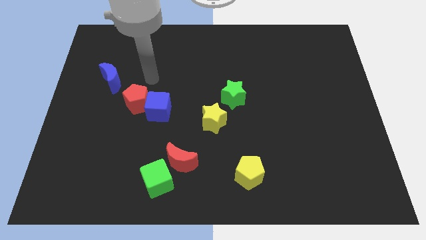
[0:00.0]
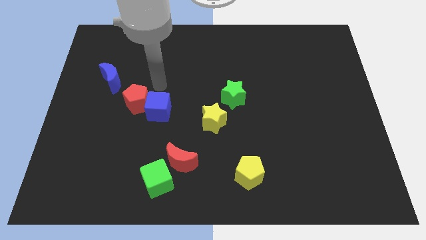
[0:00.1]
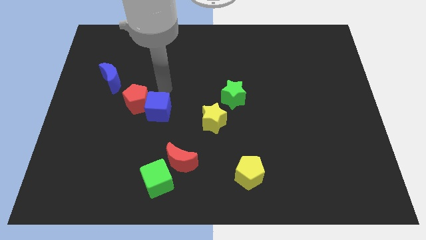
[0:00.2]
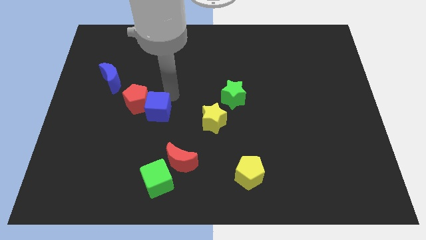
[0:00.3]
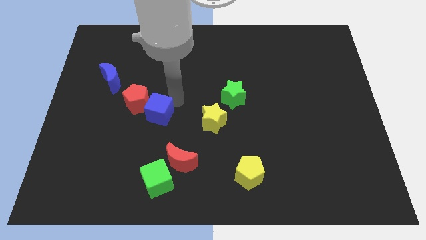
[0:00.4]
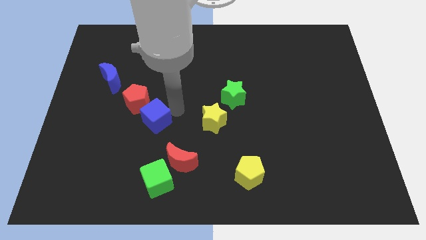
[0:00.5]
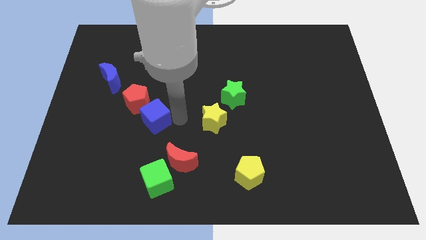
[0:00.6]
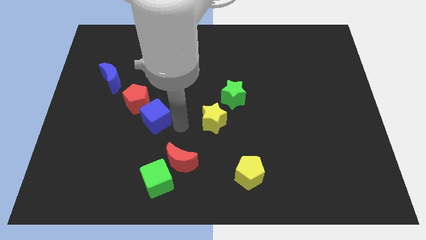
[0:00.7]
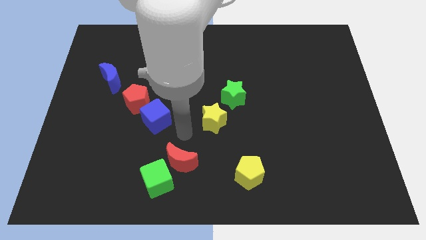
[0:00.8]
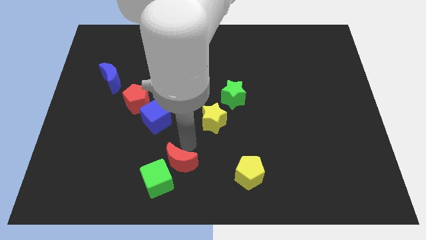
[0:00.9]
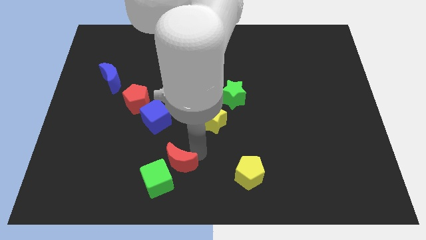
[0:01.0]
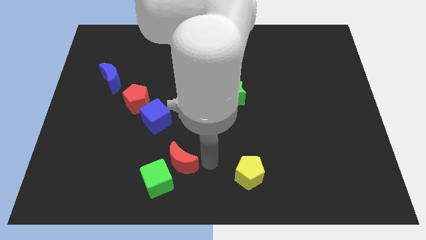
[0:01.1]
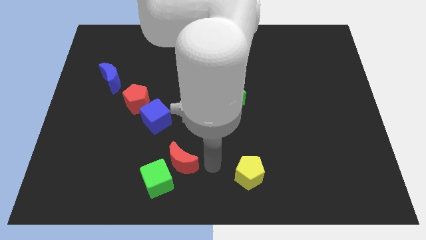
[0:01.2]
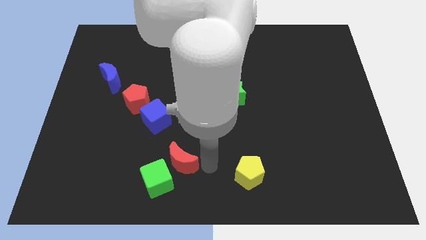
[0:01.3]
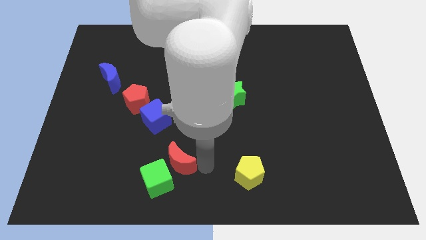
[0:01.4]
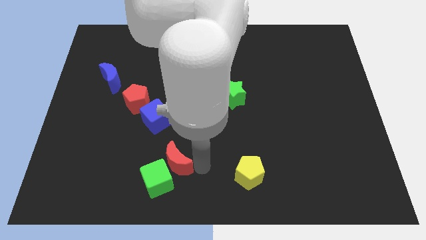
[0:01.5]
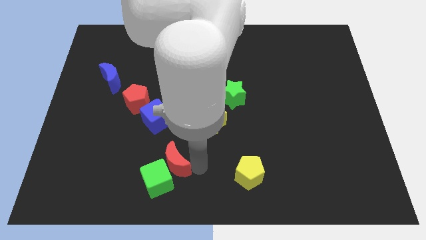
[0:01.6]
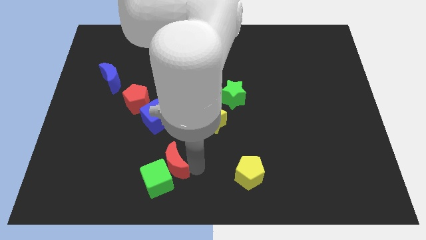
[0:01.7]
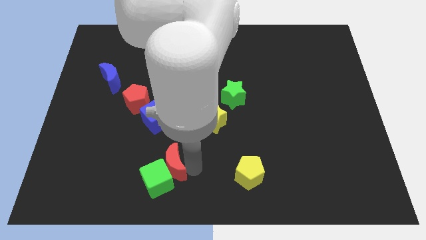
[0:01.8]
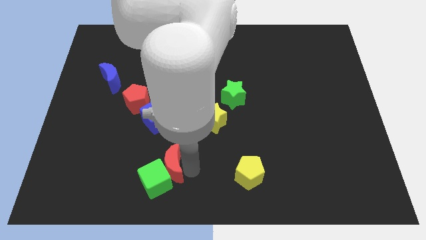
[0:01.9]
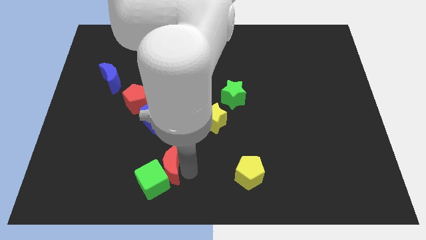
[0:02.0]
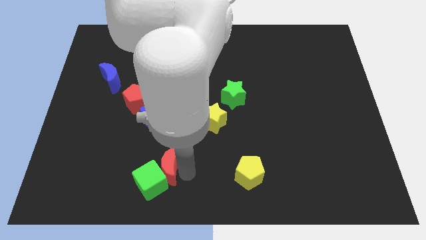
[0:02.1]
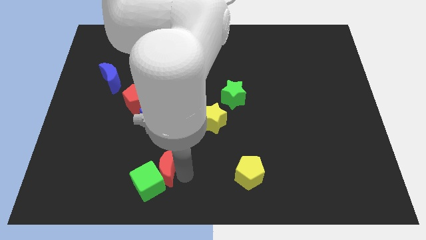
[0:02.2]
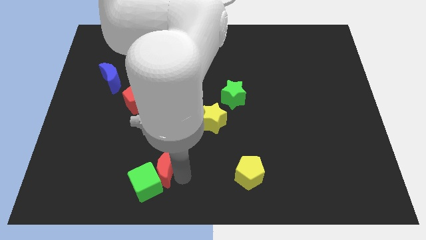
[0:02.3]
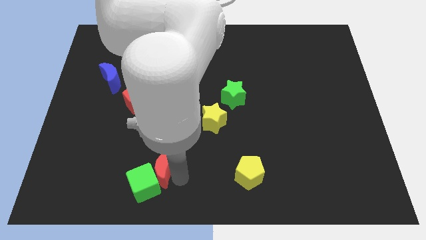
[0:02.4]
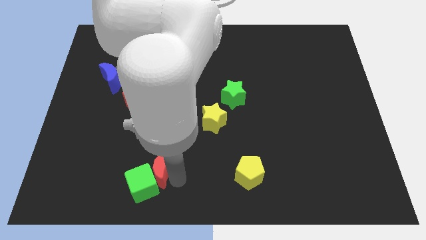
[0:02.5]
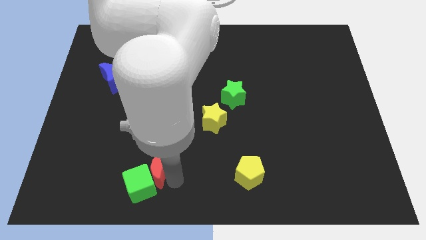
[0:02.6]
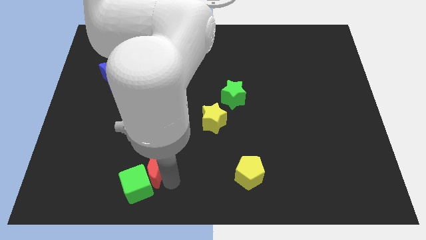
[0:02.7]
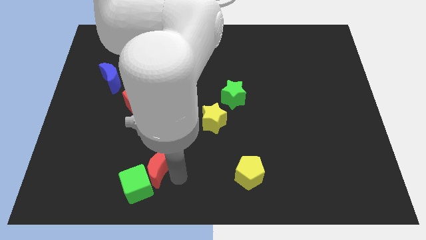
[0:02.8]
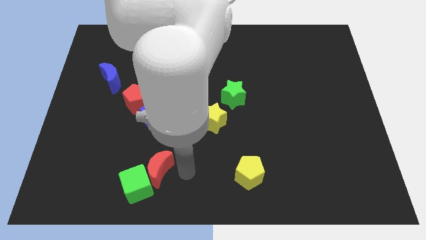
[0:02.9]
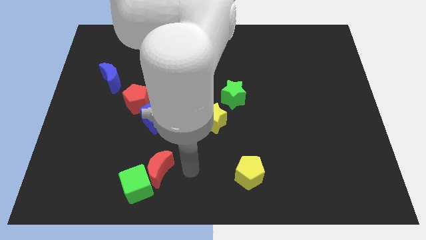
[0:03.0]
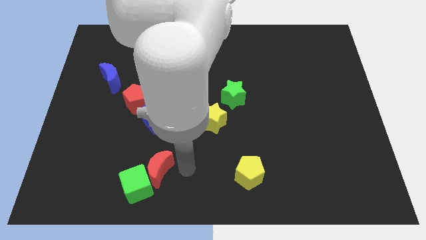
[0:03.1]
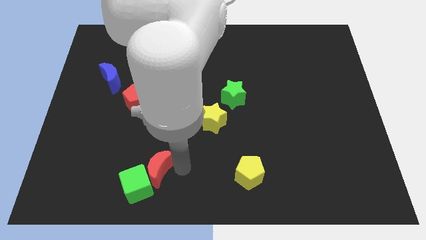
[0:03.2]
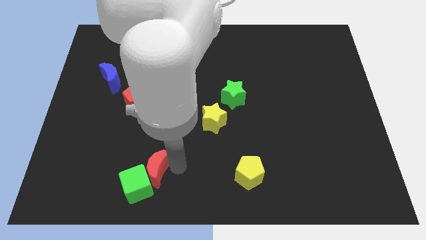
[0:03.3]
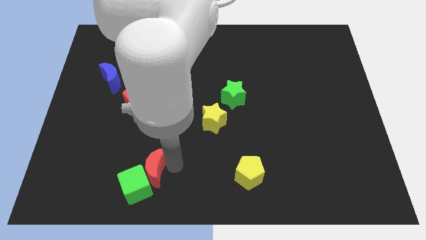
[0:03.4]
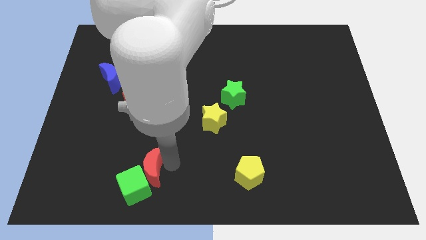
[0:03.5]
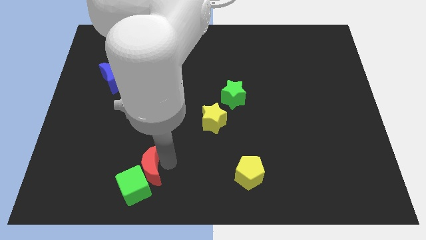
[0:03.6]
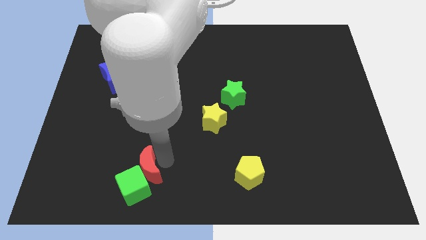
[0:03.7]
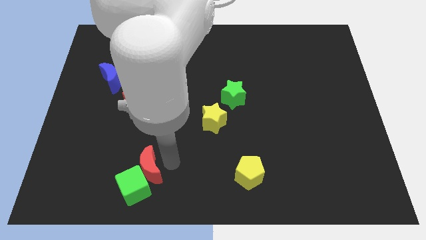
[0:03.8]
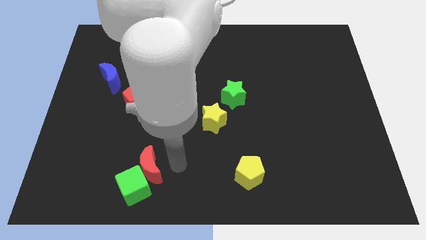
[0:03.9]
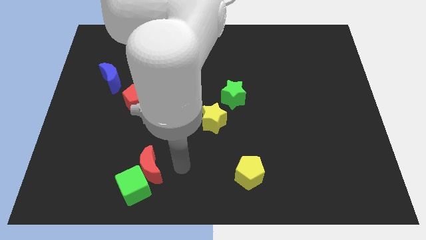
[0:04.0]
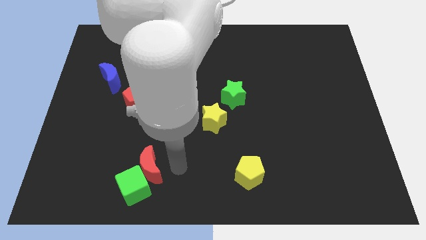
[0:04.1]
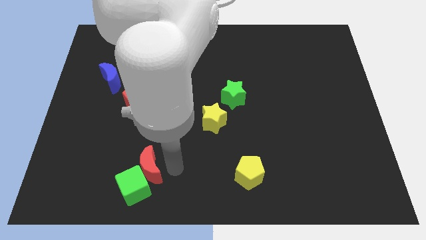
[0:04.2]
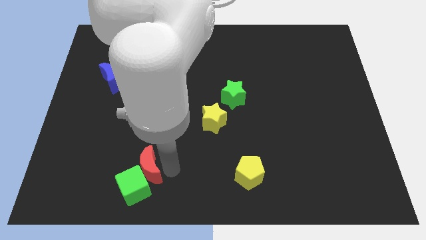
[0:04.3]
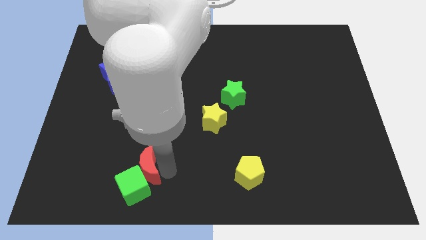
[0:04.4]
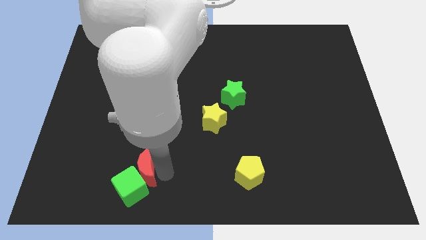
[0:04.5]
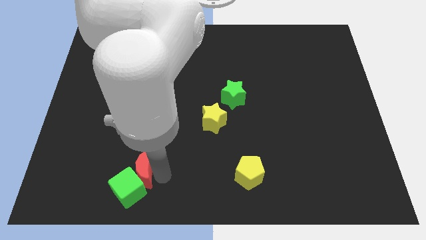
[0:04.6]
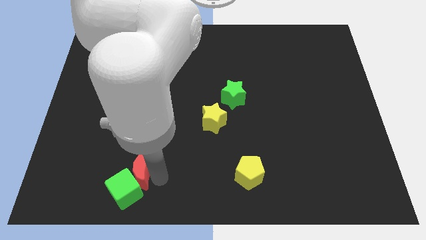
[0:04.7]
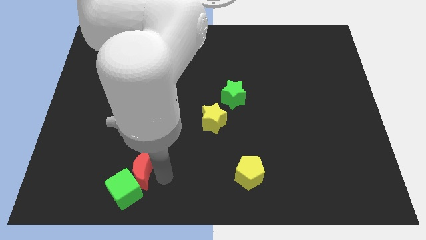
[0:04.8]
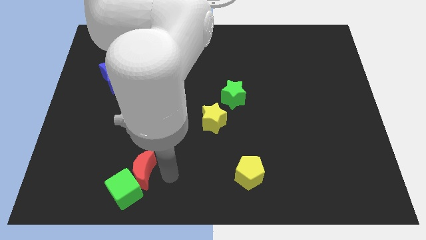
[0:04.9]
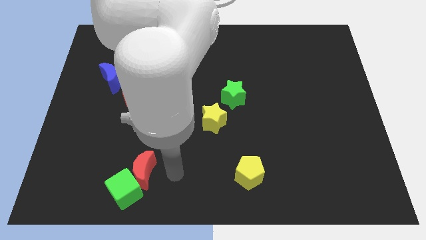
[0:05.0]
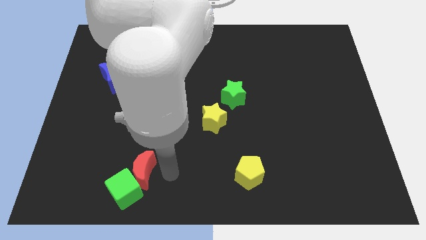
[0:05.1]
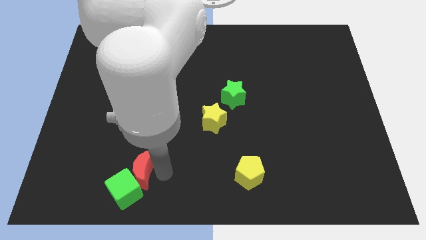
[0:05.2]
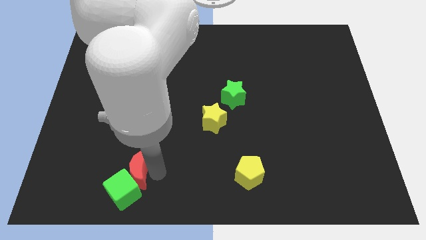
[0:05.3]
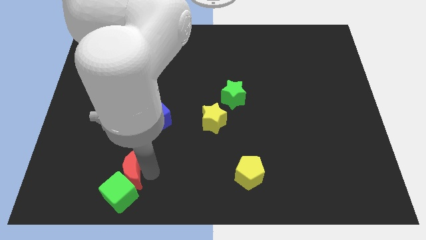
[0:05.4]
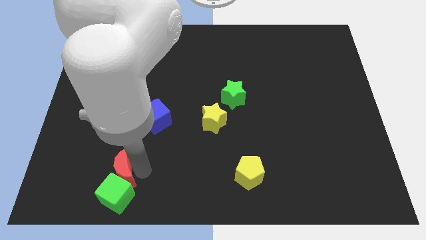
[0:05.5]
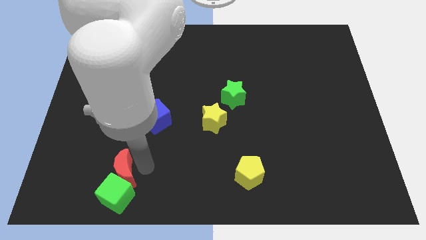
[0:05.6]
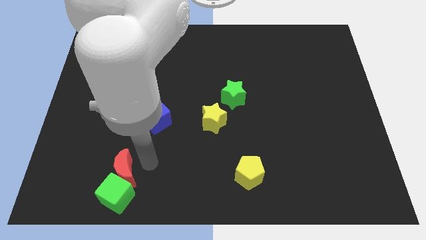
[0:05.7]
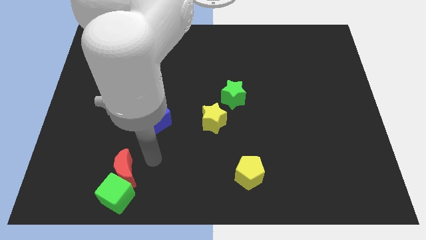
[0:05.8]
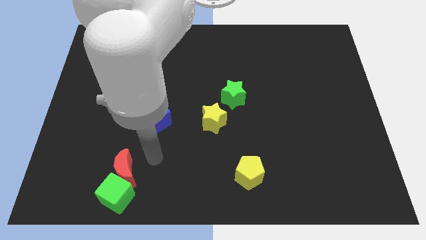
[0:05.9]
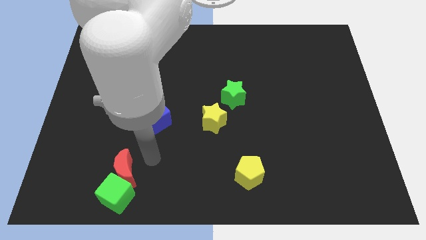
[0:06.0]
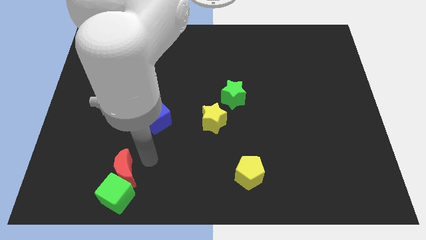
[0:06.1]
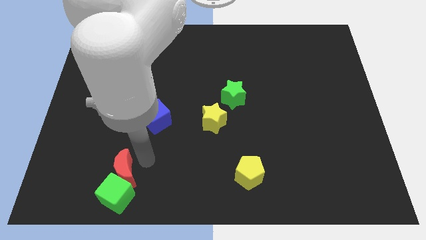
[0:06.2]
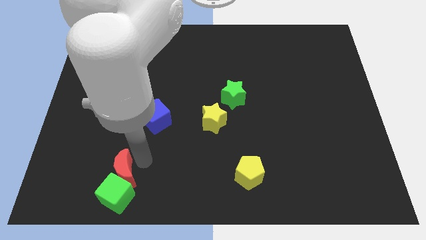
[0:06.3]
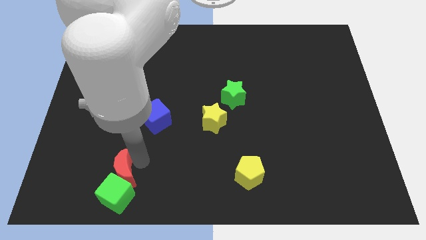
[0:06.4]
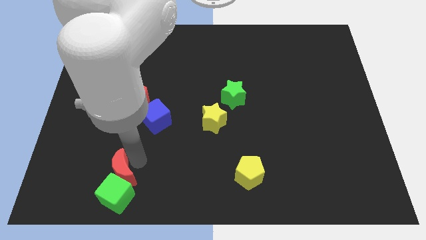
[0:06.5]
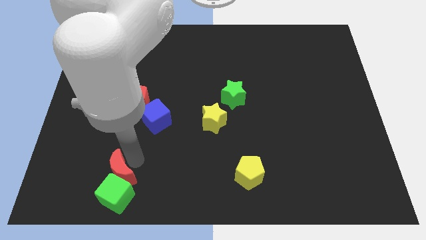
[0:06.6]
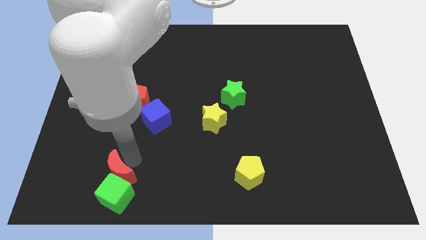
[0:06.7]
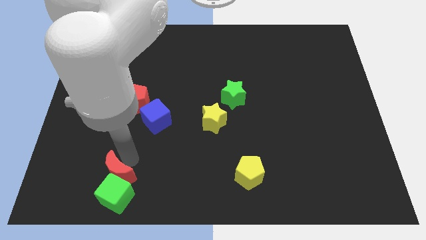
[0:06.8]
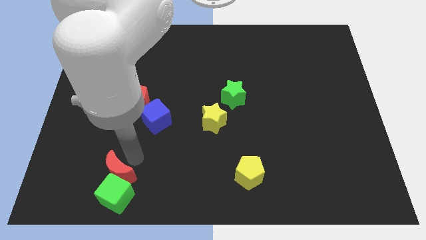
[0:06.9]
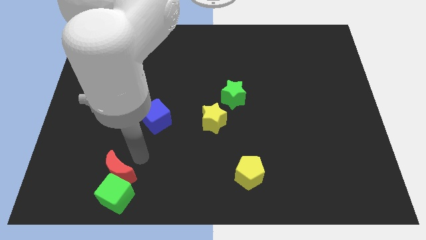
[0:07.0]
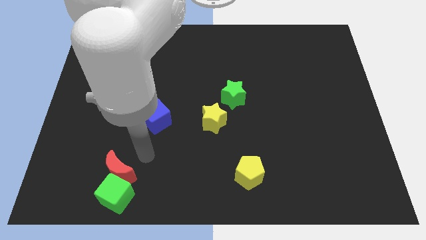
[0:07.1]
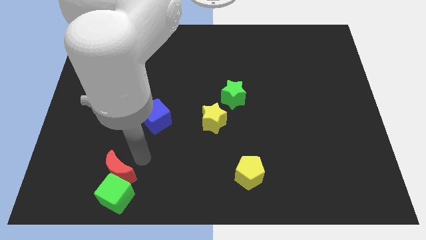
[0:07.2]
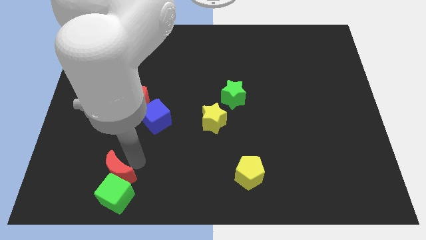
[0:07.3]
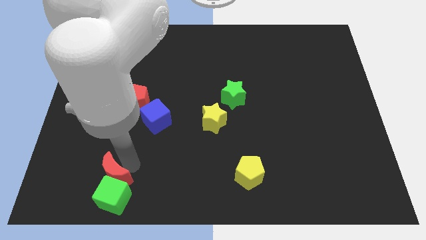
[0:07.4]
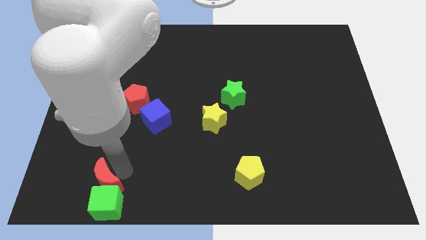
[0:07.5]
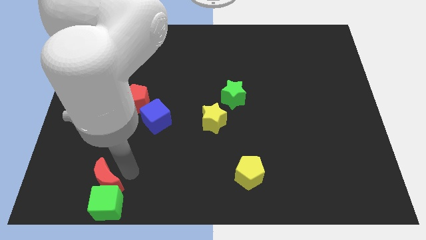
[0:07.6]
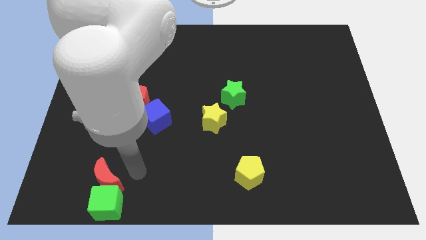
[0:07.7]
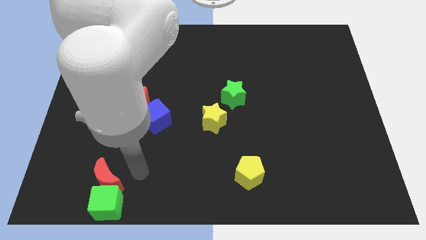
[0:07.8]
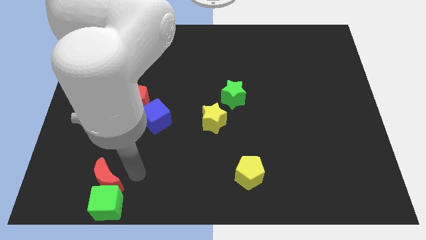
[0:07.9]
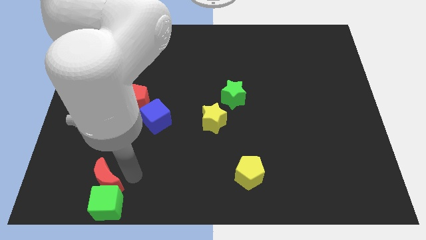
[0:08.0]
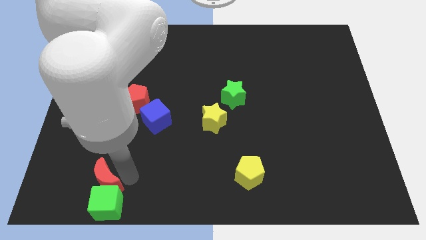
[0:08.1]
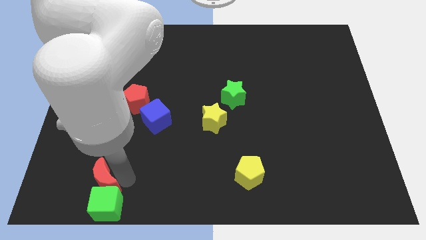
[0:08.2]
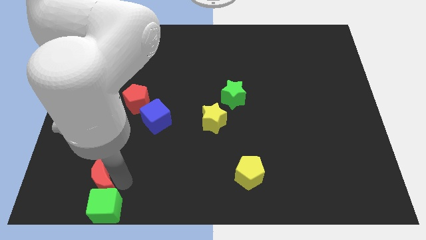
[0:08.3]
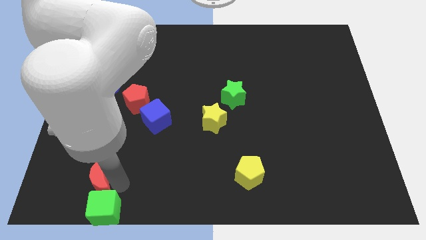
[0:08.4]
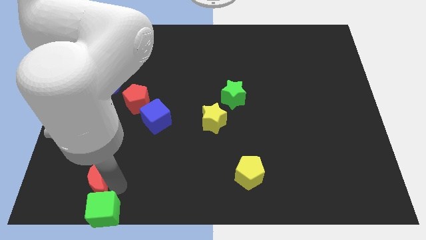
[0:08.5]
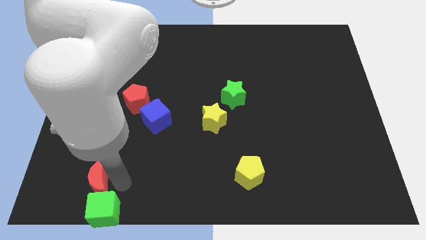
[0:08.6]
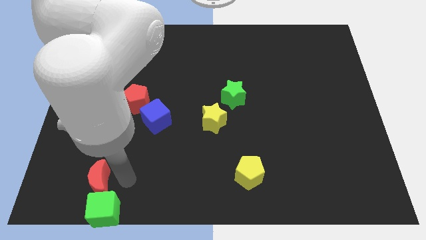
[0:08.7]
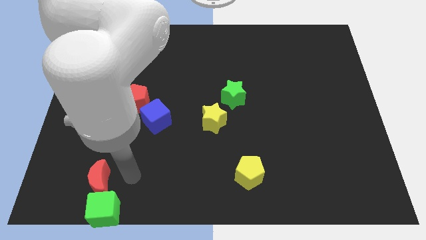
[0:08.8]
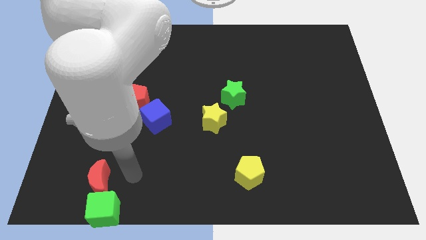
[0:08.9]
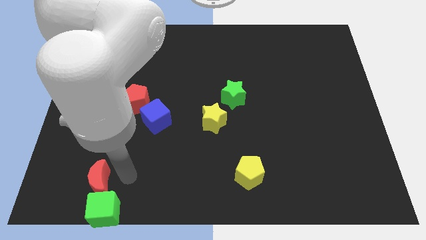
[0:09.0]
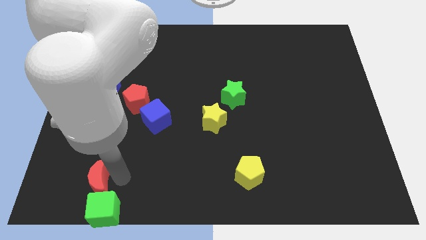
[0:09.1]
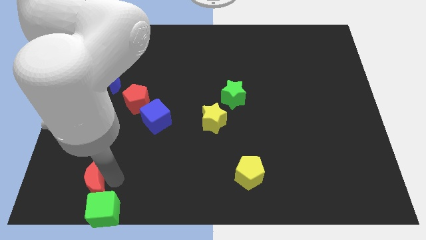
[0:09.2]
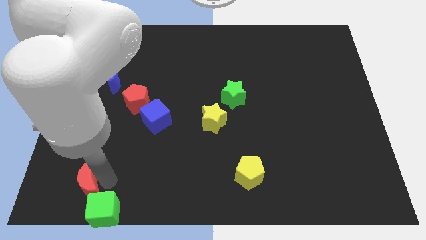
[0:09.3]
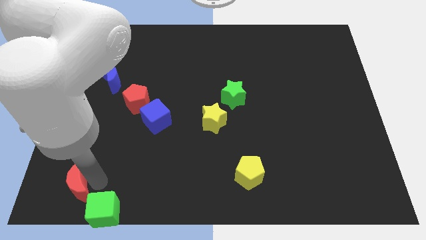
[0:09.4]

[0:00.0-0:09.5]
put the red moon to the bottom left
